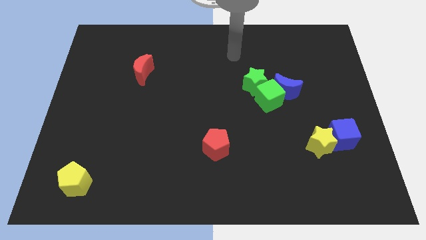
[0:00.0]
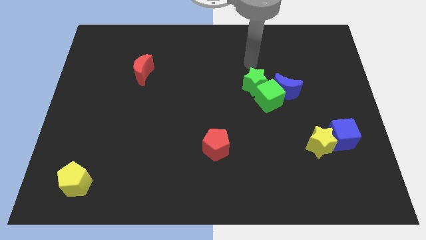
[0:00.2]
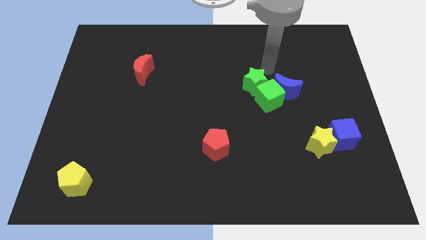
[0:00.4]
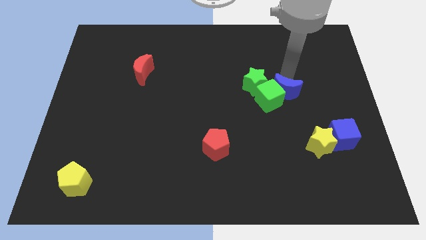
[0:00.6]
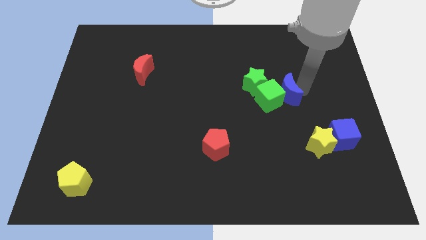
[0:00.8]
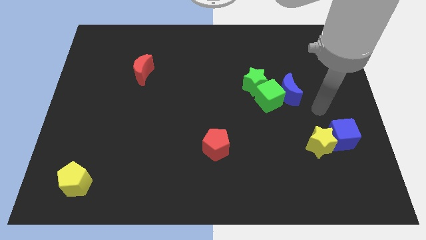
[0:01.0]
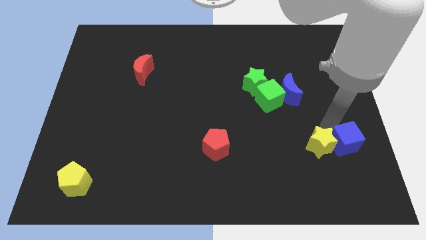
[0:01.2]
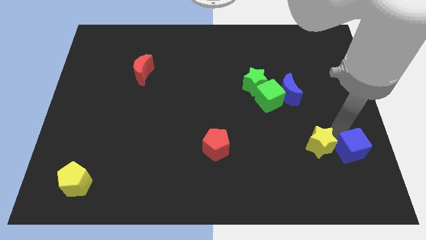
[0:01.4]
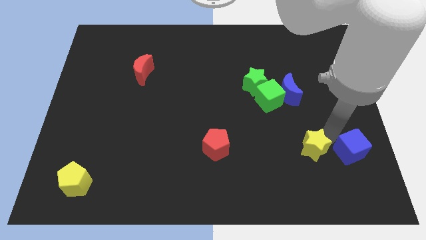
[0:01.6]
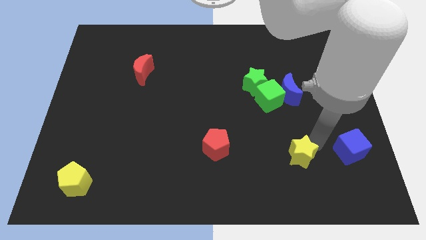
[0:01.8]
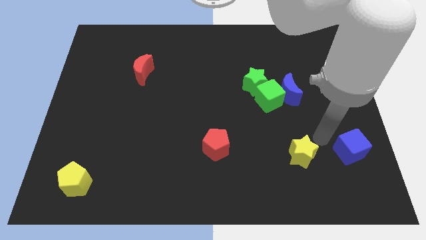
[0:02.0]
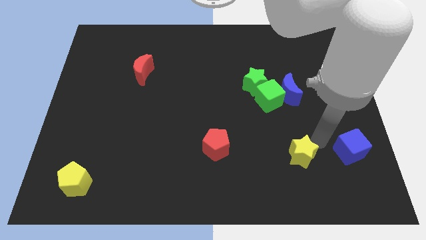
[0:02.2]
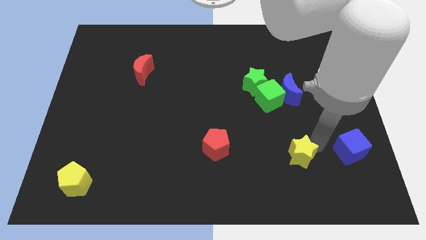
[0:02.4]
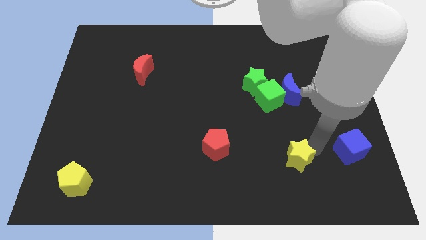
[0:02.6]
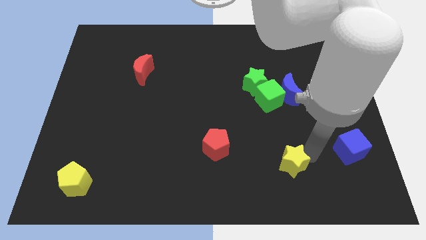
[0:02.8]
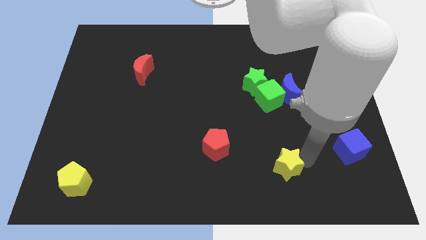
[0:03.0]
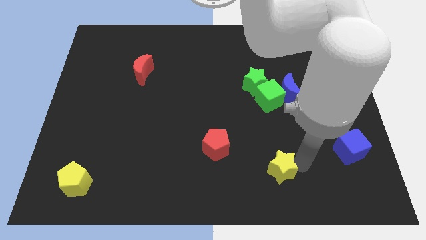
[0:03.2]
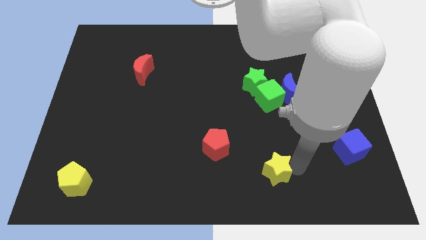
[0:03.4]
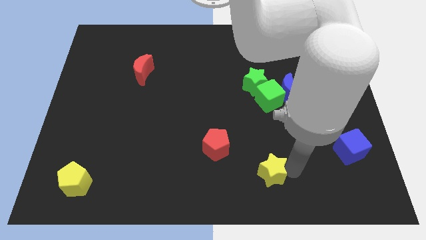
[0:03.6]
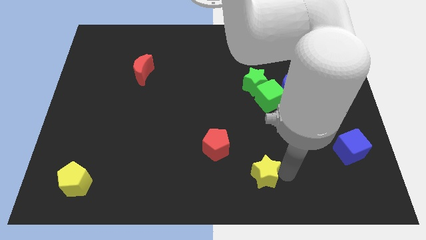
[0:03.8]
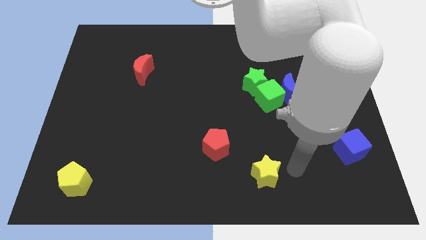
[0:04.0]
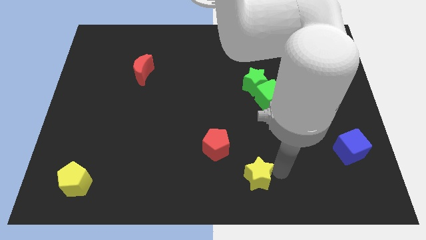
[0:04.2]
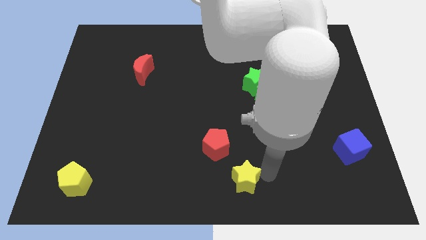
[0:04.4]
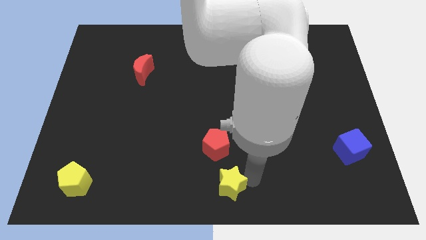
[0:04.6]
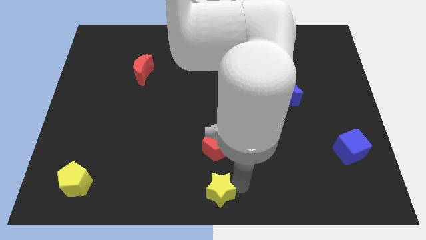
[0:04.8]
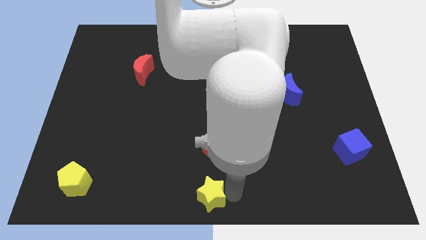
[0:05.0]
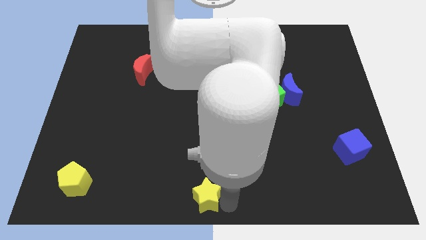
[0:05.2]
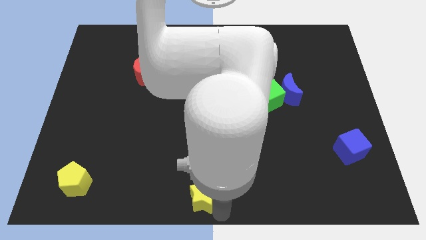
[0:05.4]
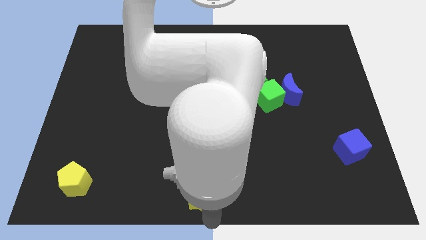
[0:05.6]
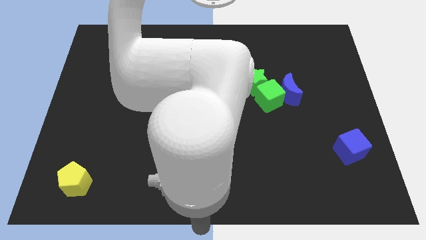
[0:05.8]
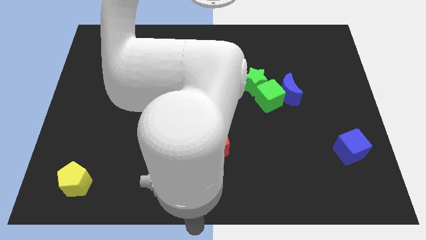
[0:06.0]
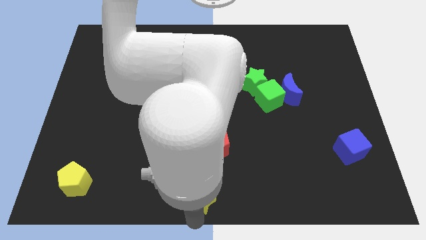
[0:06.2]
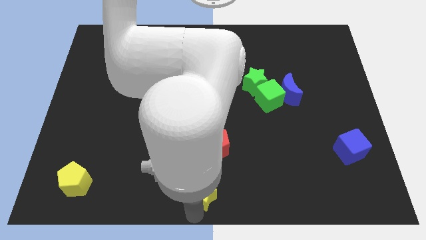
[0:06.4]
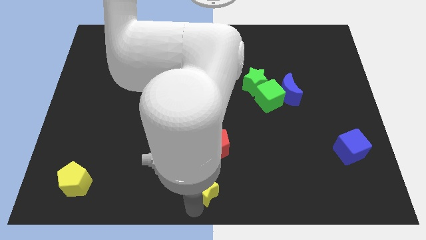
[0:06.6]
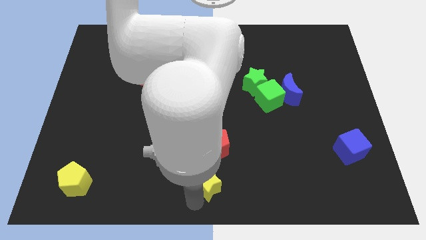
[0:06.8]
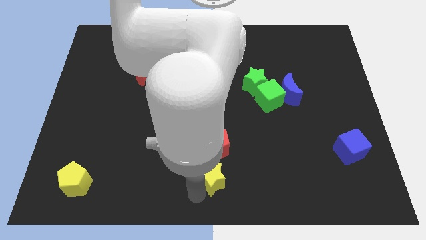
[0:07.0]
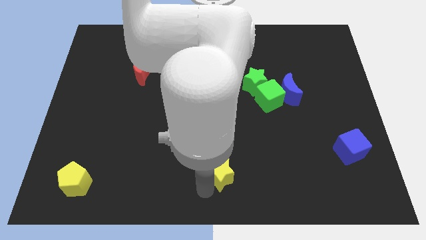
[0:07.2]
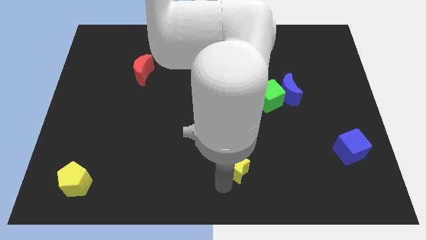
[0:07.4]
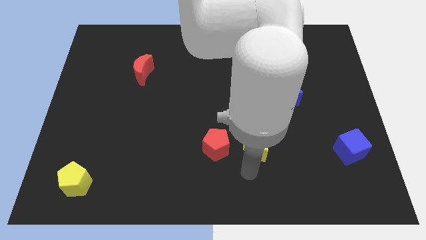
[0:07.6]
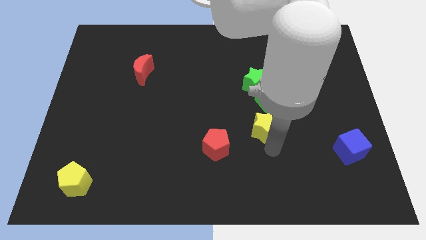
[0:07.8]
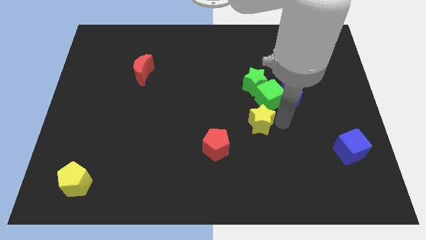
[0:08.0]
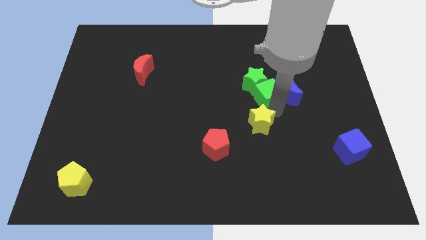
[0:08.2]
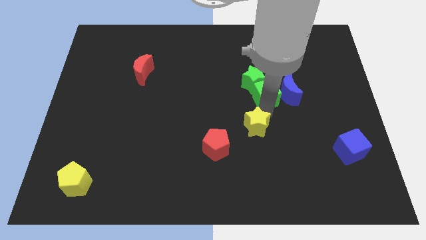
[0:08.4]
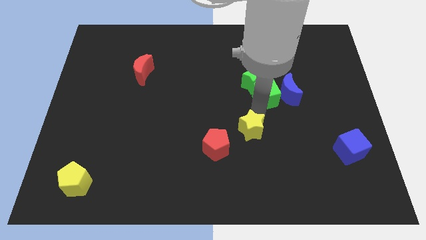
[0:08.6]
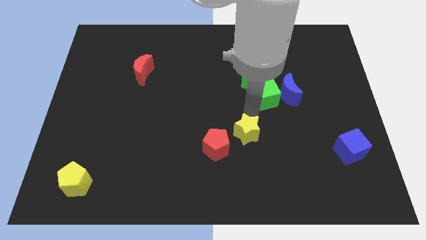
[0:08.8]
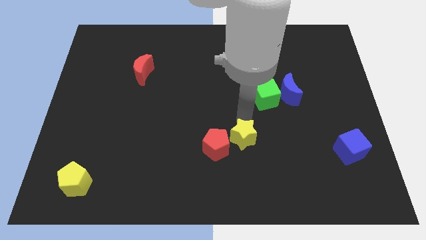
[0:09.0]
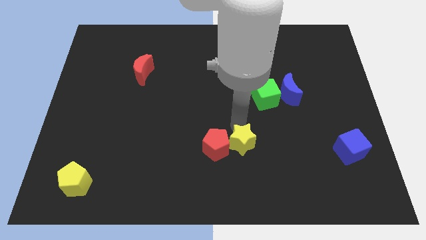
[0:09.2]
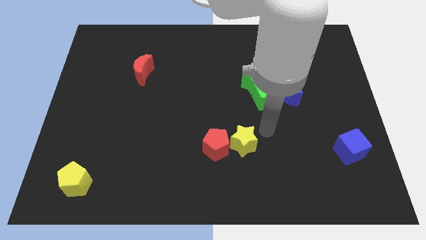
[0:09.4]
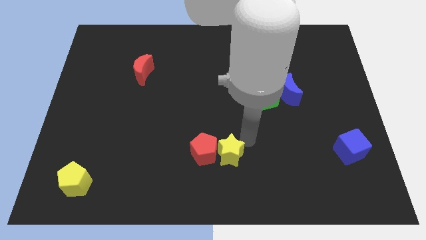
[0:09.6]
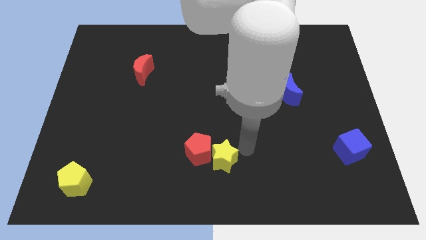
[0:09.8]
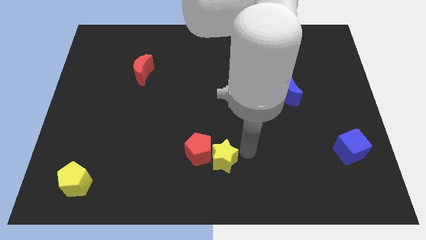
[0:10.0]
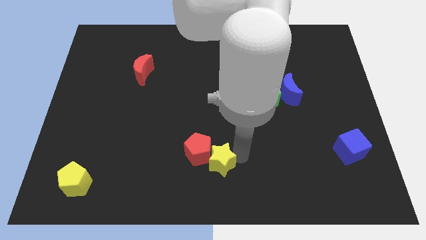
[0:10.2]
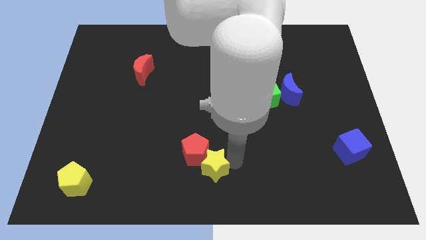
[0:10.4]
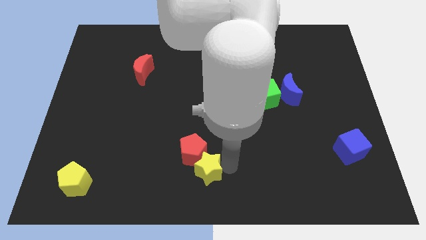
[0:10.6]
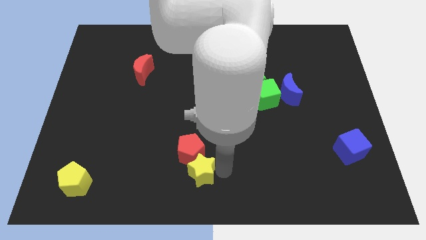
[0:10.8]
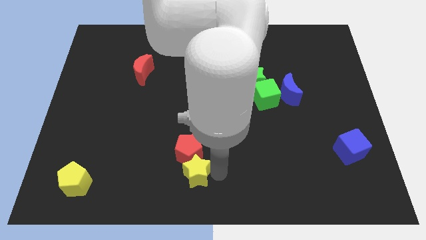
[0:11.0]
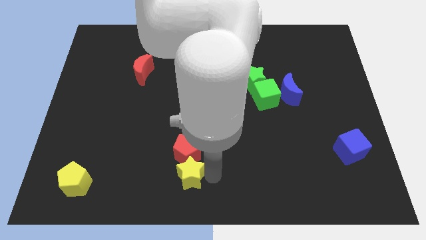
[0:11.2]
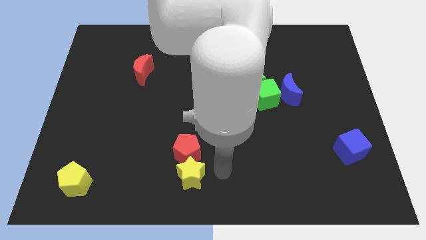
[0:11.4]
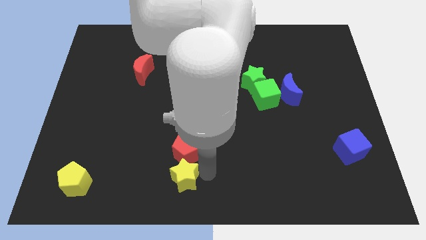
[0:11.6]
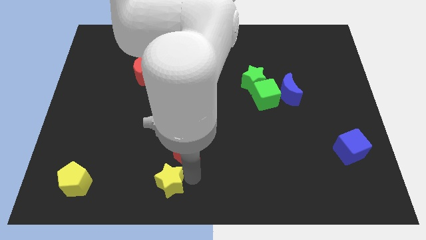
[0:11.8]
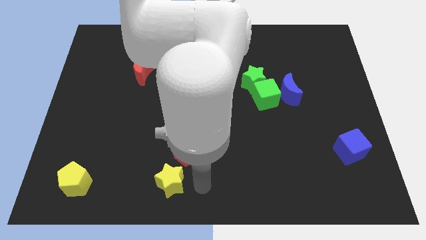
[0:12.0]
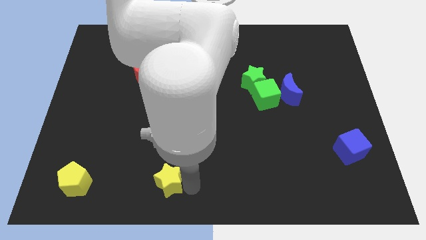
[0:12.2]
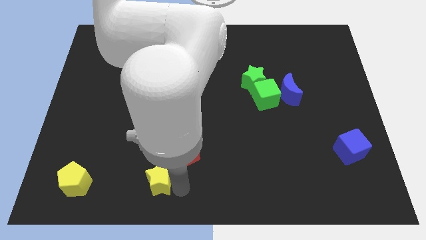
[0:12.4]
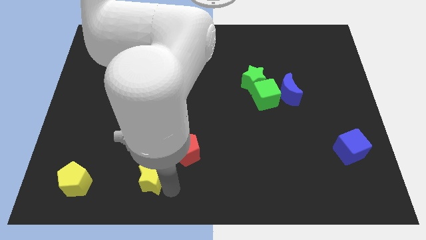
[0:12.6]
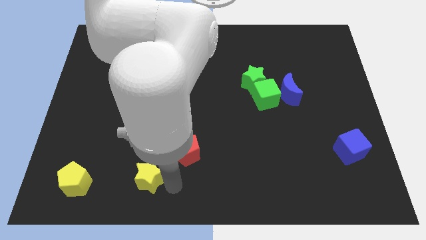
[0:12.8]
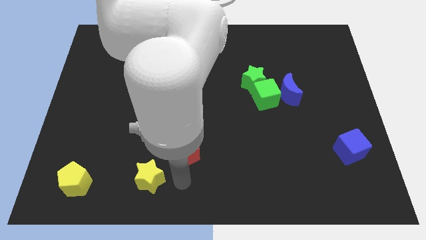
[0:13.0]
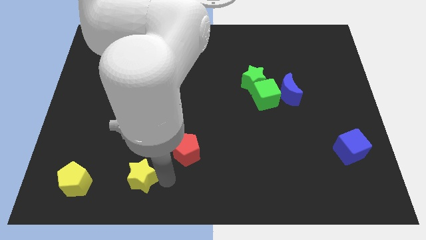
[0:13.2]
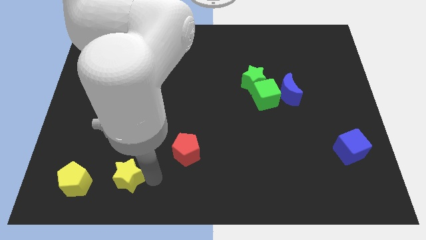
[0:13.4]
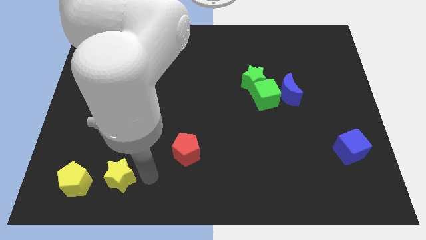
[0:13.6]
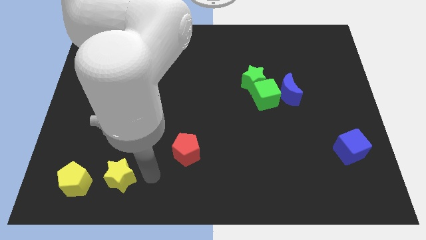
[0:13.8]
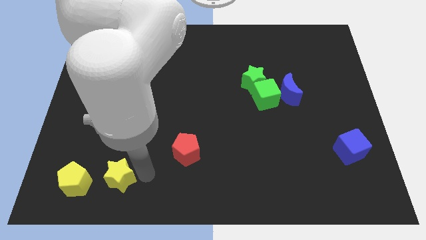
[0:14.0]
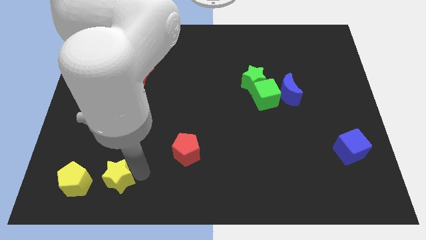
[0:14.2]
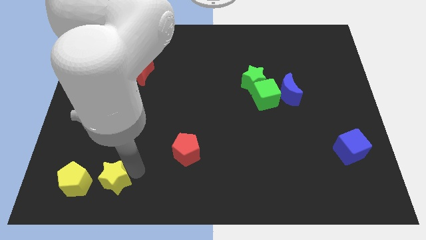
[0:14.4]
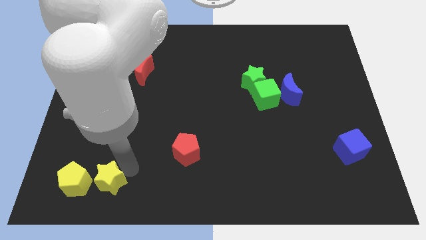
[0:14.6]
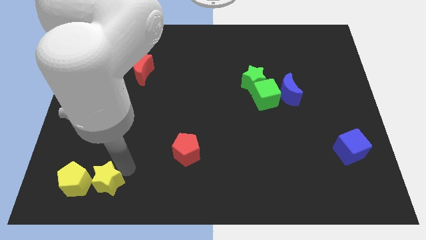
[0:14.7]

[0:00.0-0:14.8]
put the yellow star next to the yellow pentagon
